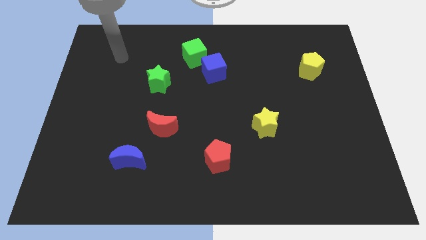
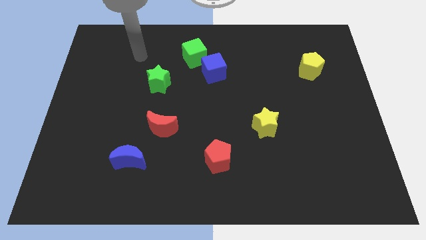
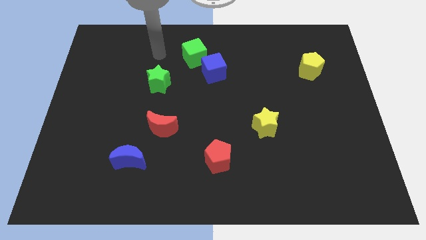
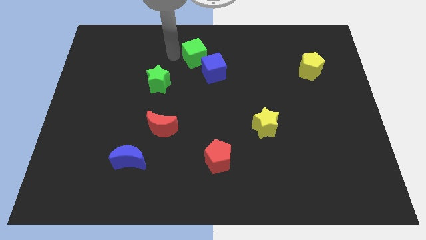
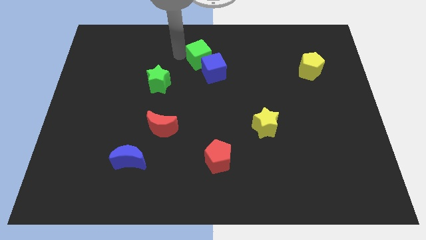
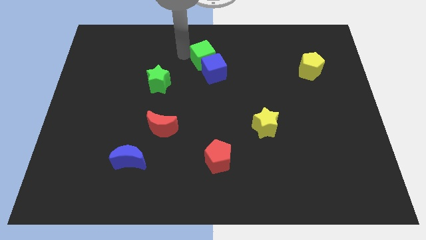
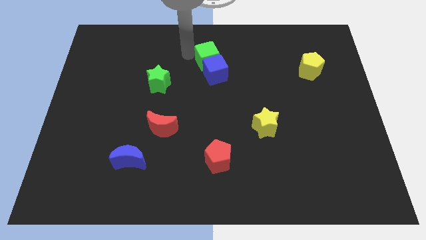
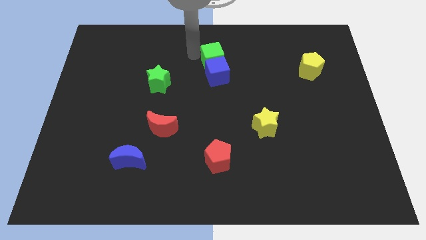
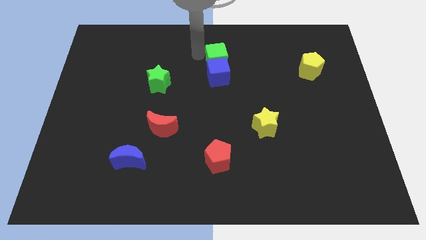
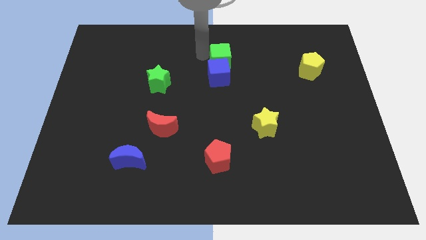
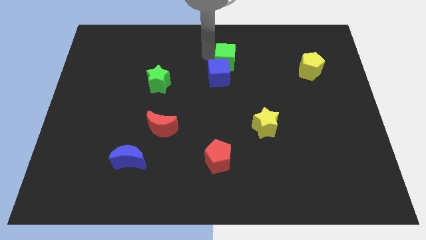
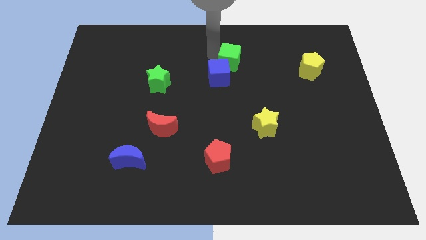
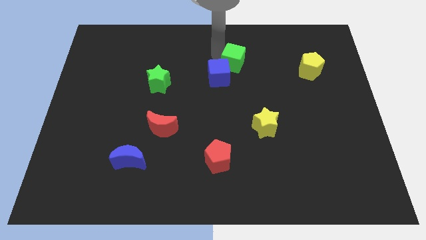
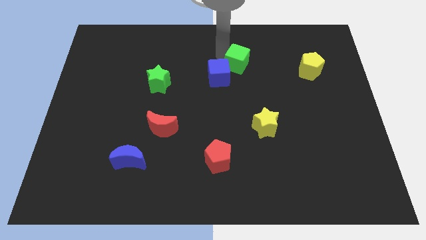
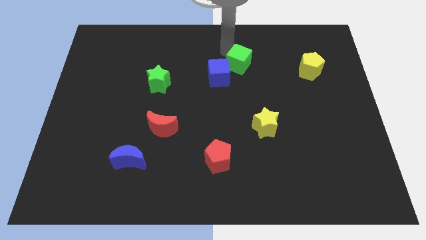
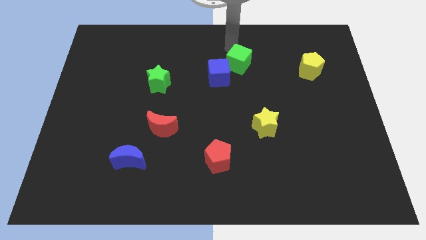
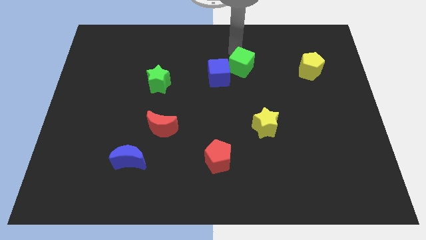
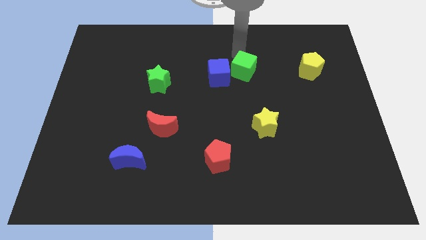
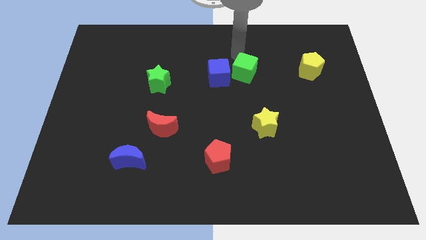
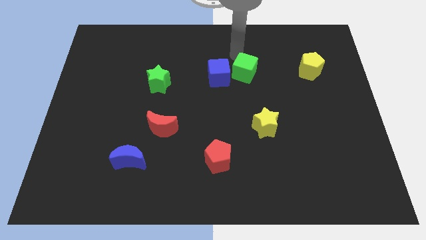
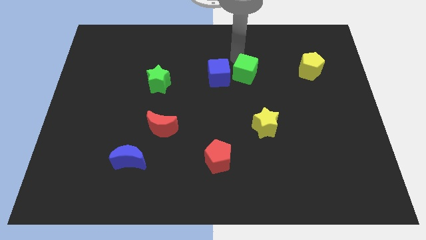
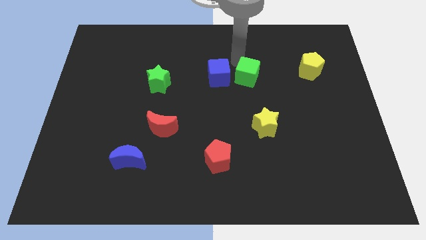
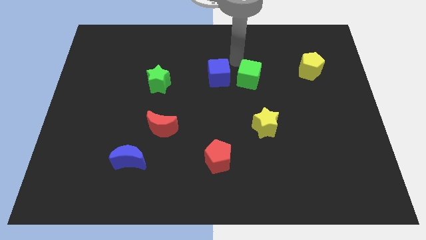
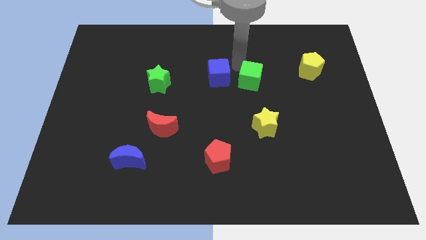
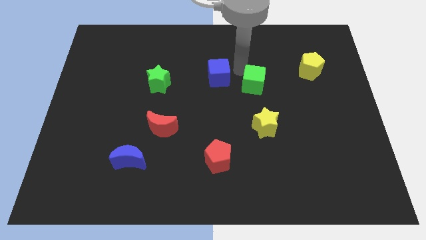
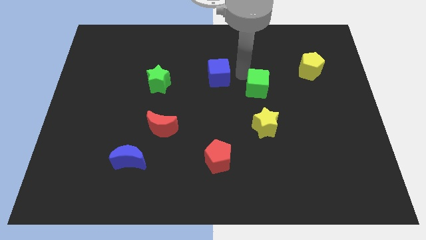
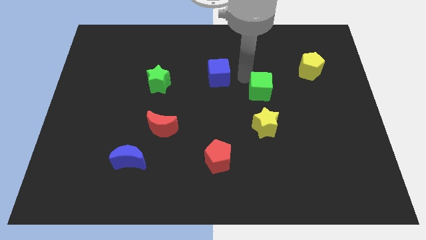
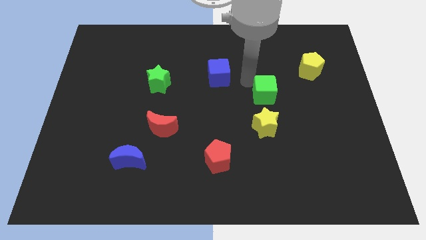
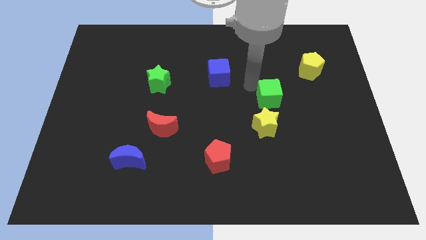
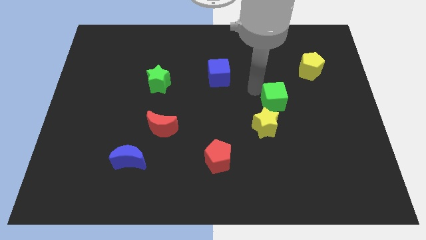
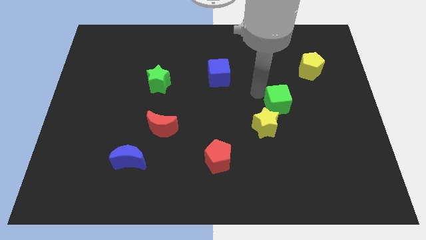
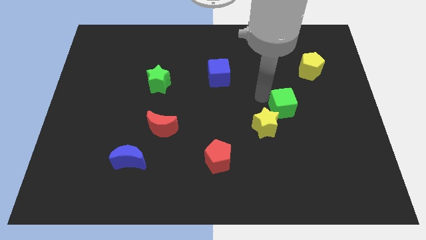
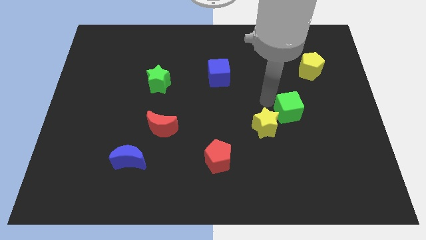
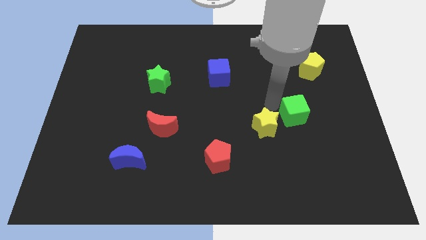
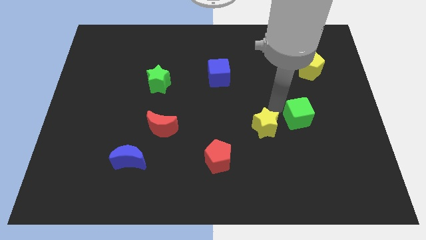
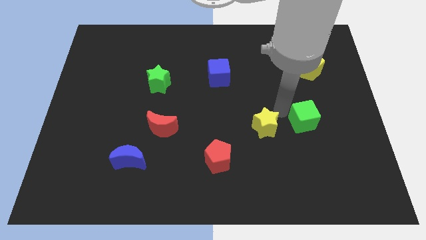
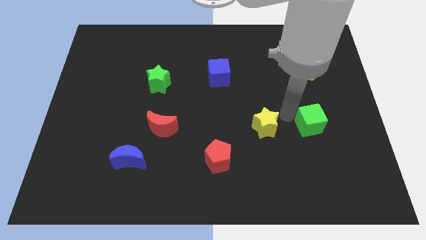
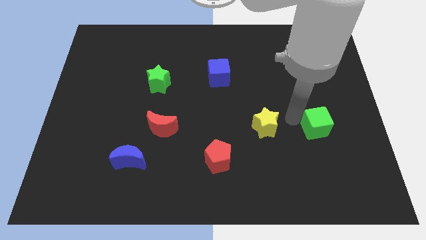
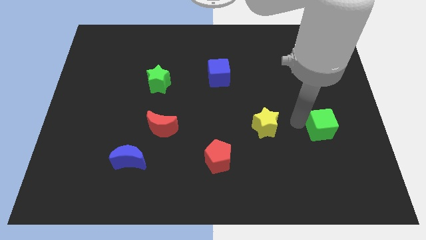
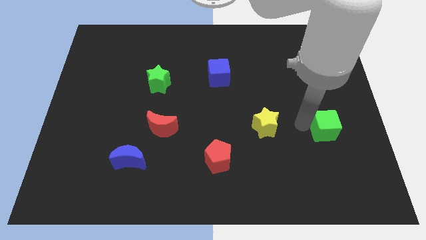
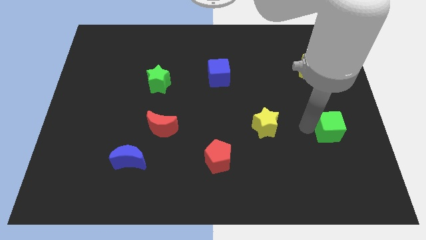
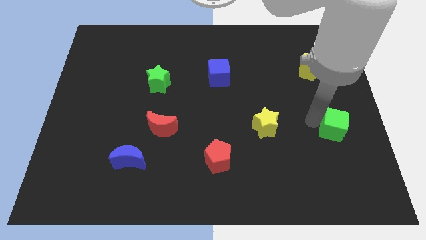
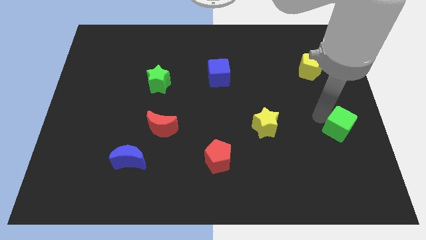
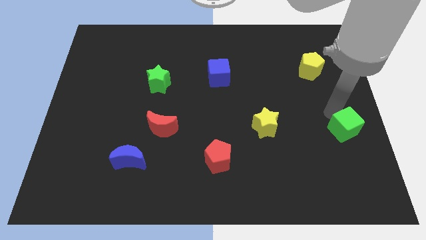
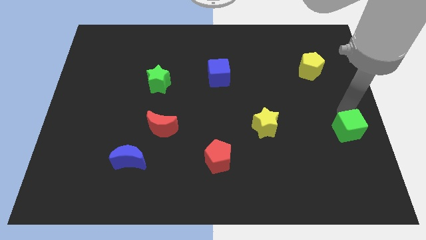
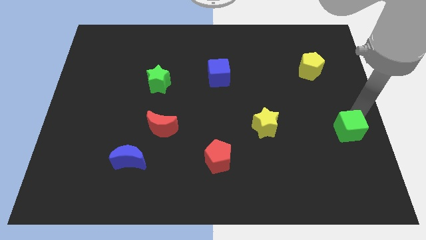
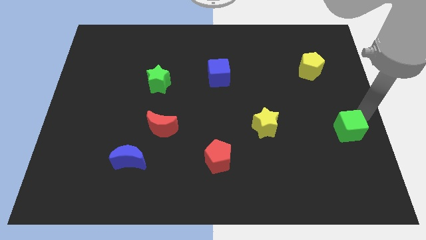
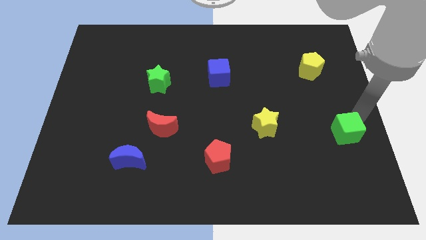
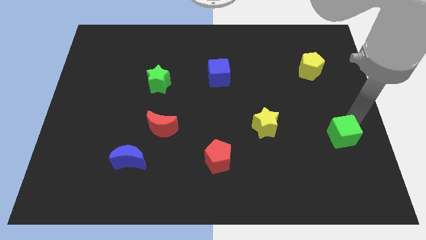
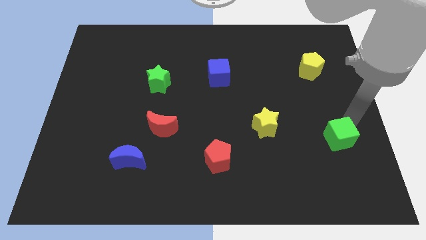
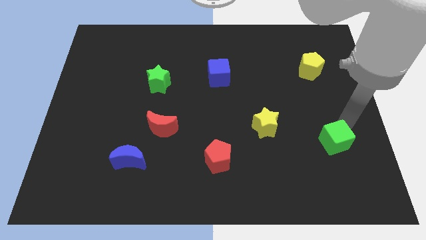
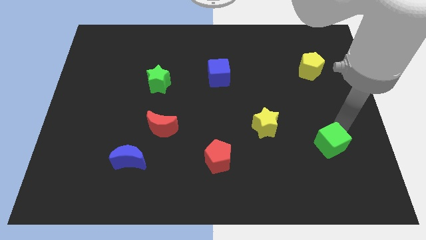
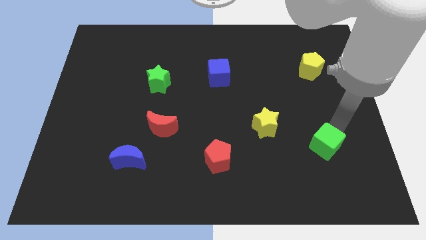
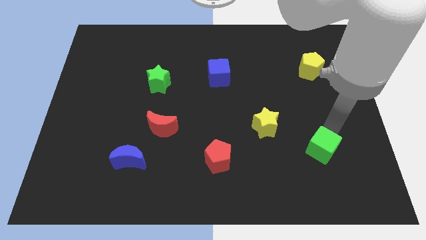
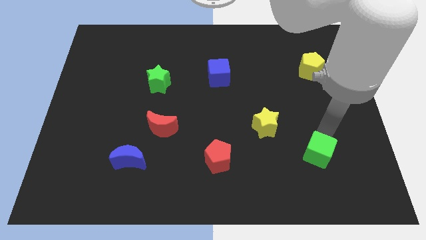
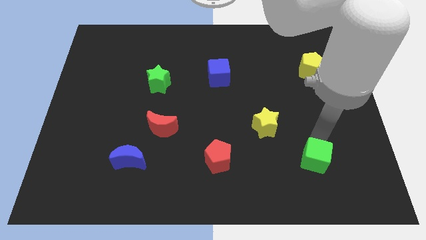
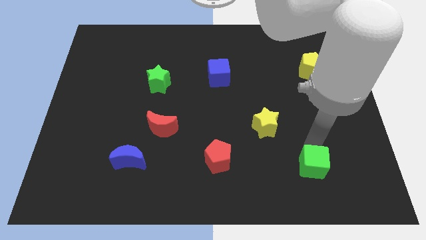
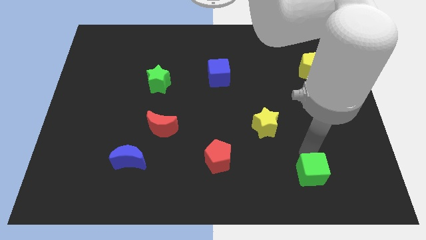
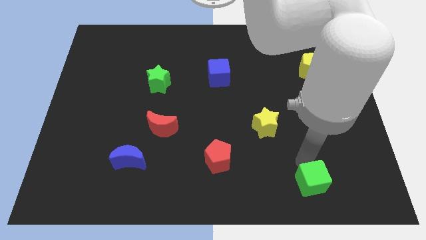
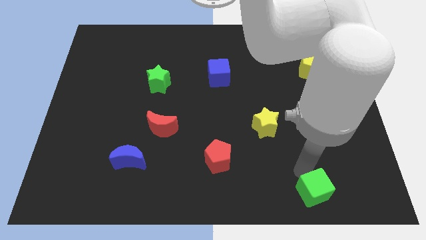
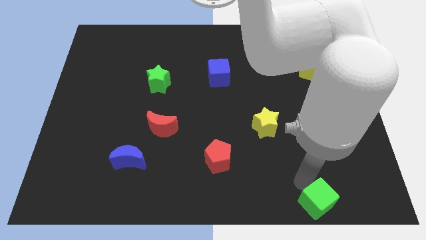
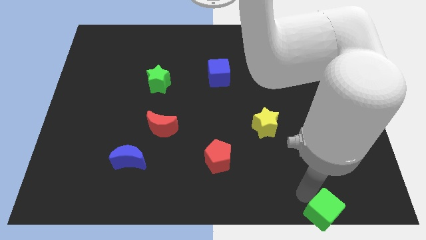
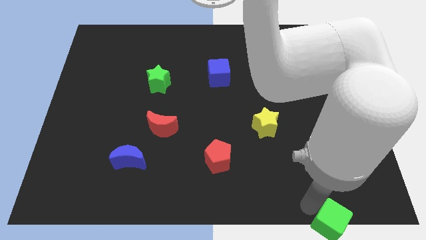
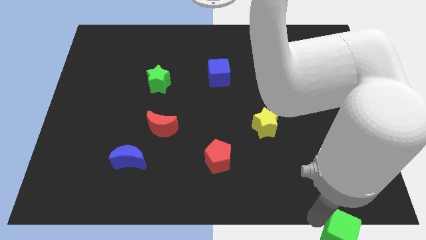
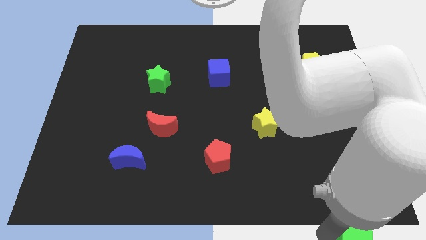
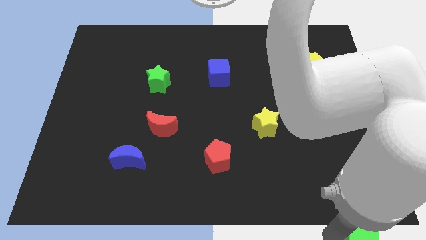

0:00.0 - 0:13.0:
put the green cube to the lower right corner
